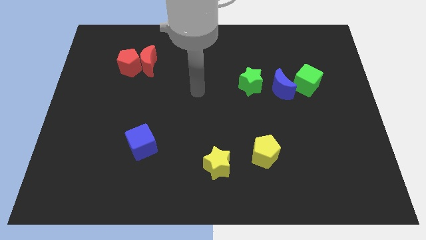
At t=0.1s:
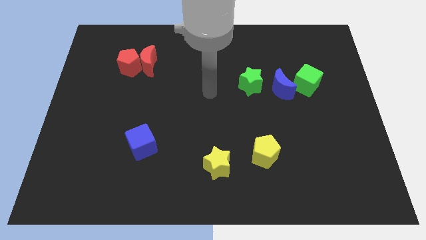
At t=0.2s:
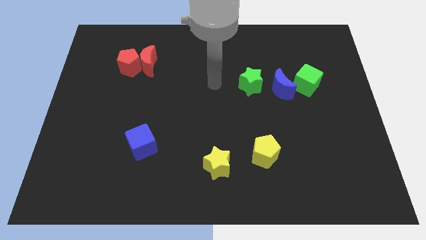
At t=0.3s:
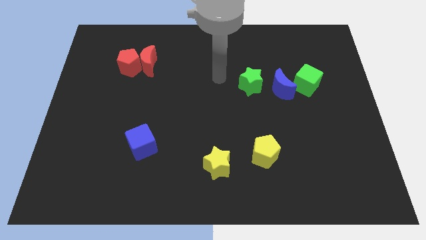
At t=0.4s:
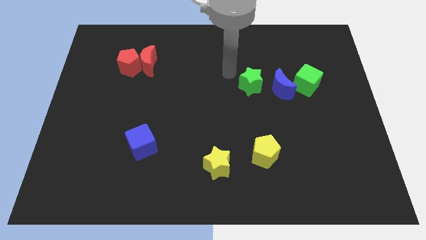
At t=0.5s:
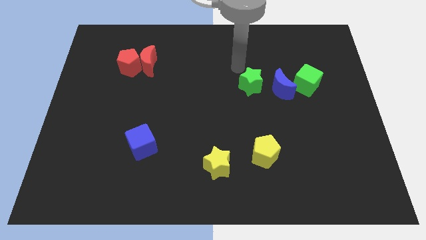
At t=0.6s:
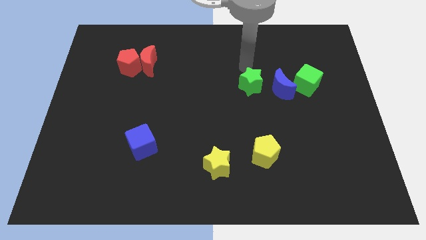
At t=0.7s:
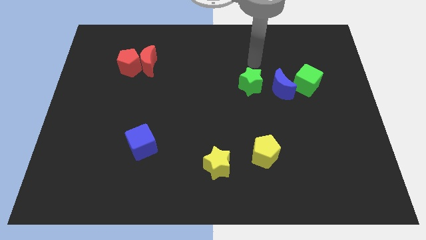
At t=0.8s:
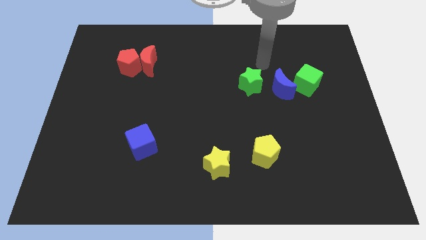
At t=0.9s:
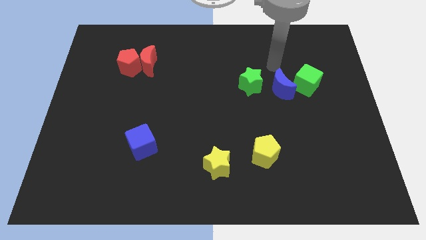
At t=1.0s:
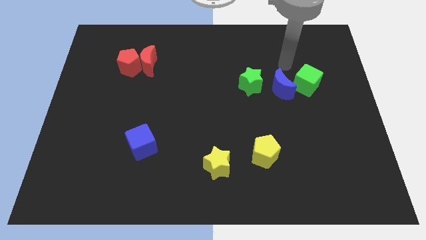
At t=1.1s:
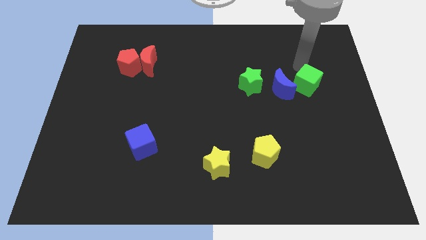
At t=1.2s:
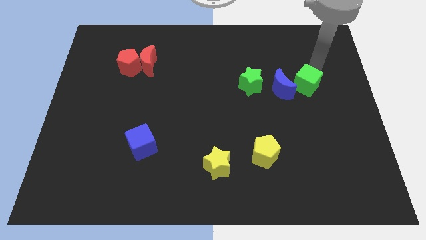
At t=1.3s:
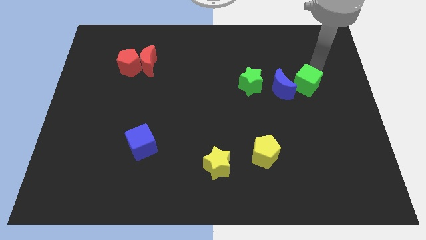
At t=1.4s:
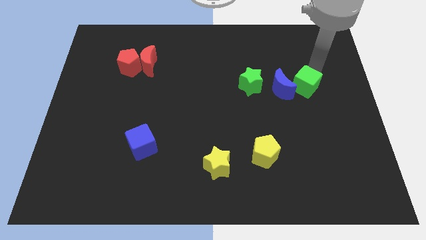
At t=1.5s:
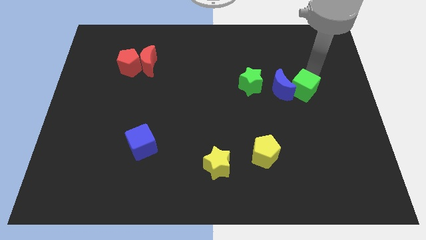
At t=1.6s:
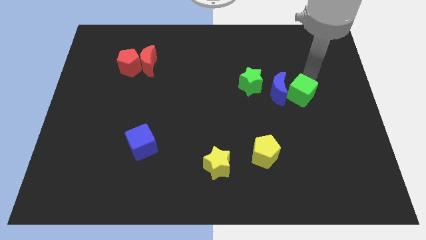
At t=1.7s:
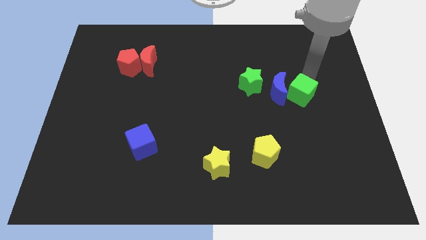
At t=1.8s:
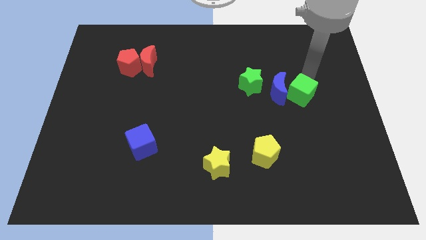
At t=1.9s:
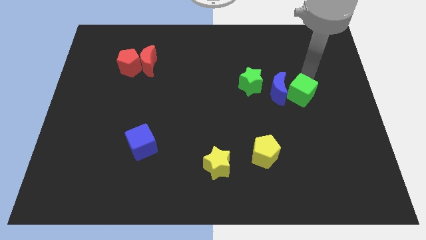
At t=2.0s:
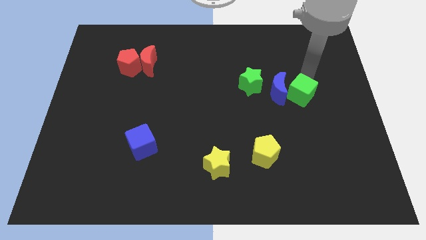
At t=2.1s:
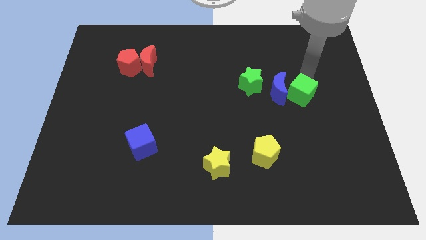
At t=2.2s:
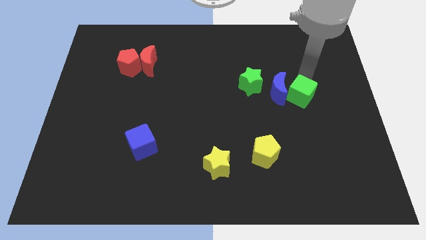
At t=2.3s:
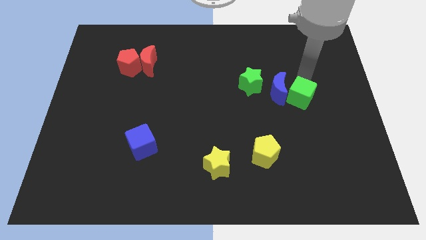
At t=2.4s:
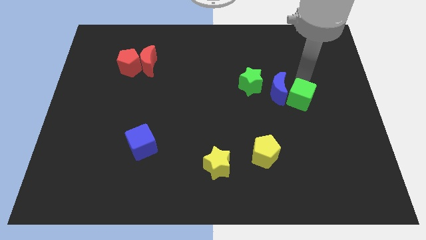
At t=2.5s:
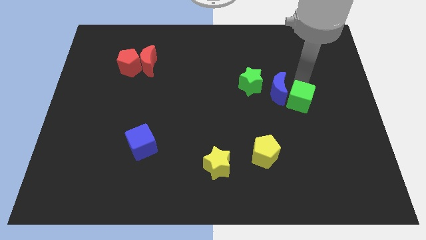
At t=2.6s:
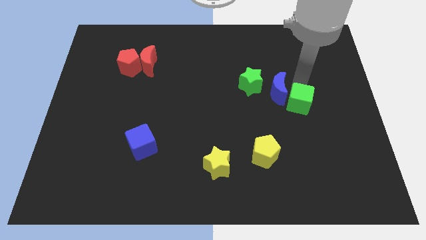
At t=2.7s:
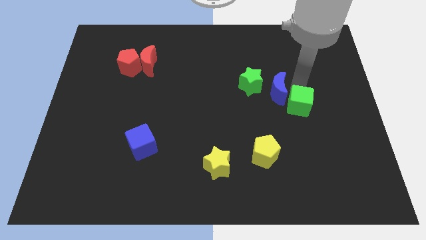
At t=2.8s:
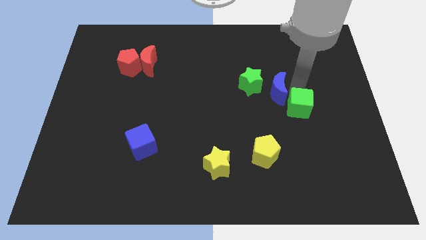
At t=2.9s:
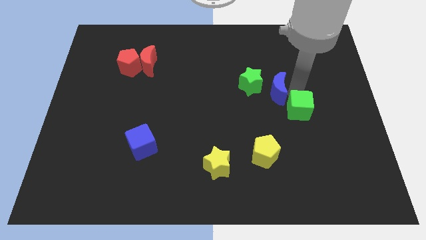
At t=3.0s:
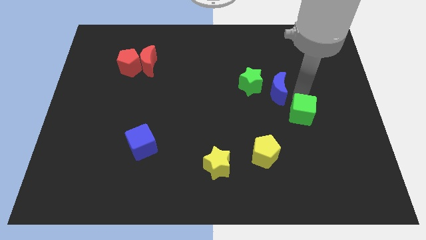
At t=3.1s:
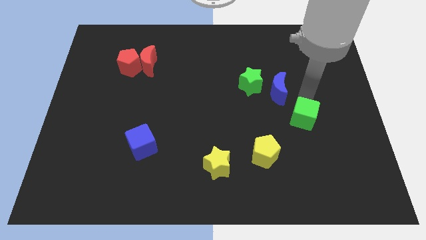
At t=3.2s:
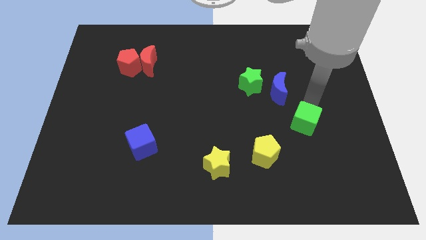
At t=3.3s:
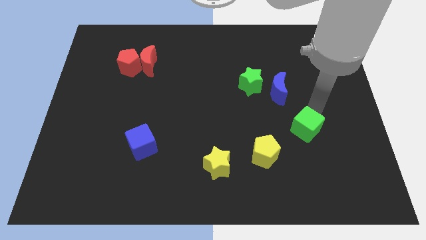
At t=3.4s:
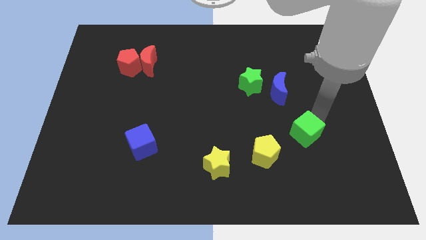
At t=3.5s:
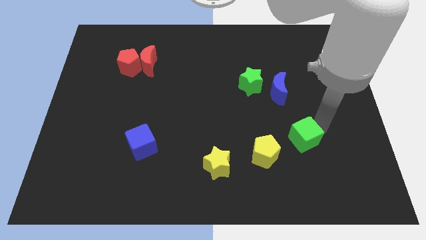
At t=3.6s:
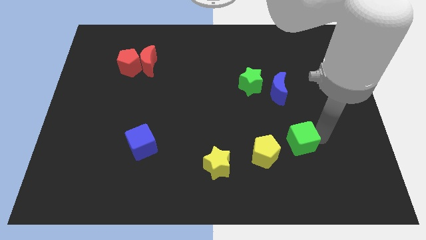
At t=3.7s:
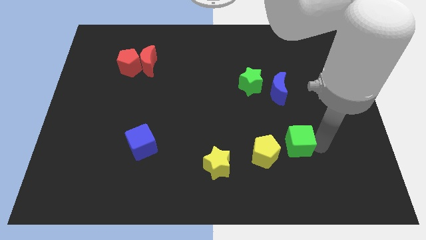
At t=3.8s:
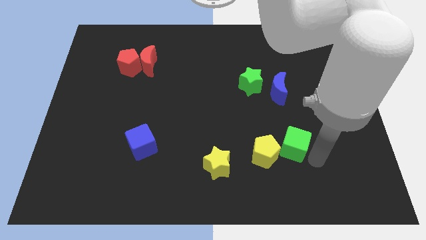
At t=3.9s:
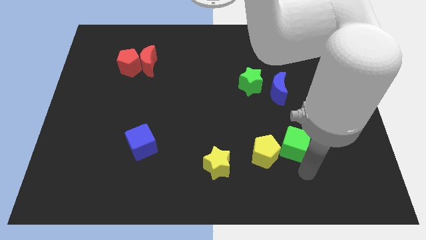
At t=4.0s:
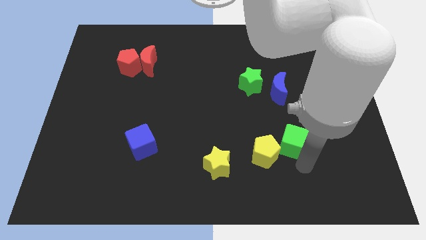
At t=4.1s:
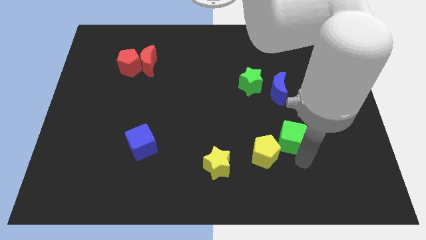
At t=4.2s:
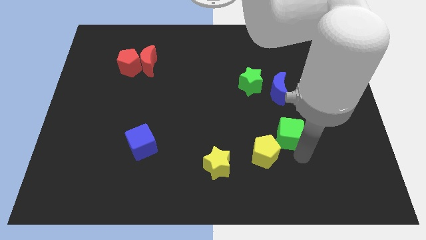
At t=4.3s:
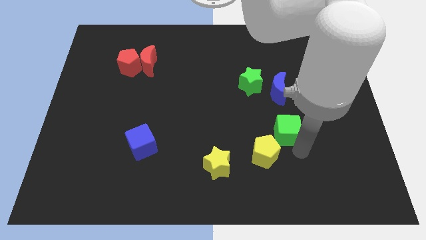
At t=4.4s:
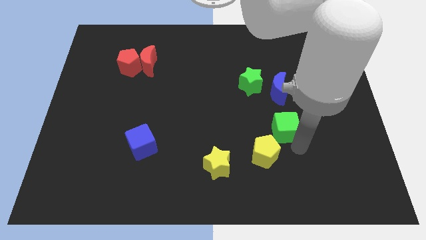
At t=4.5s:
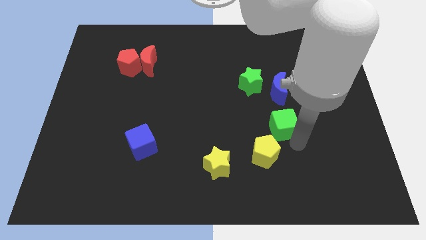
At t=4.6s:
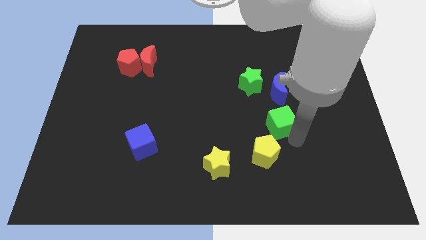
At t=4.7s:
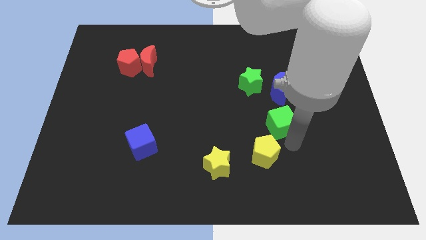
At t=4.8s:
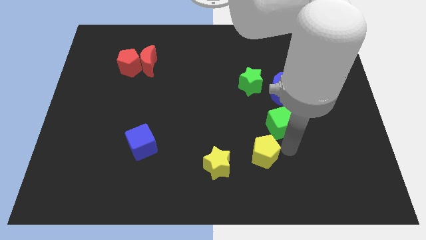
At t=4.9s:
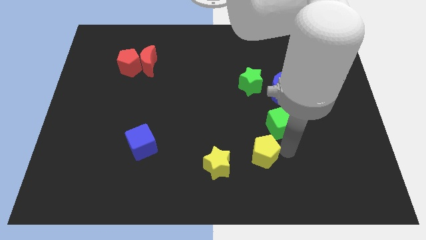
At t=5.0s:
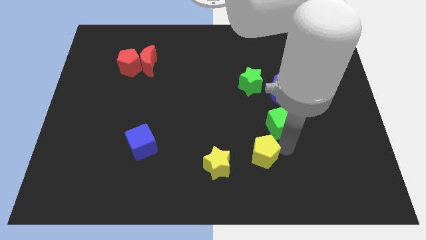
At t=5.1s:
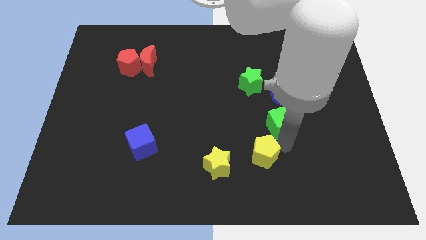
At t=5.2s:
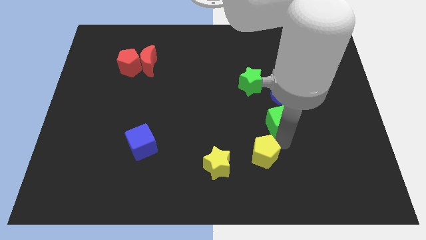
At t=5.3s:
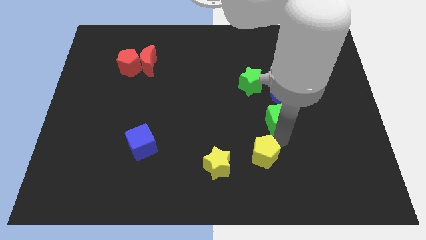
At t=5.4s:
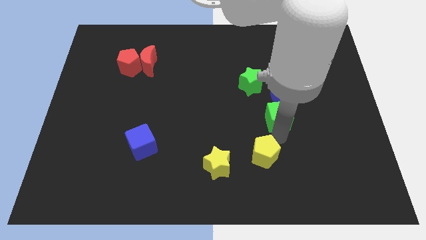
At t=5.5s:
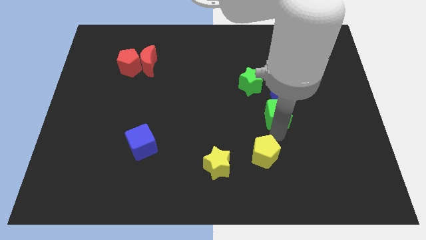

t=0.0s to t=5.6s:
move the green cube to the bottom right side of the green star

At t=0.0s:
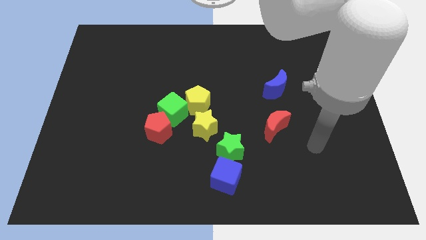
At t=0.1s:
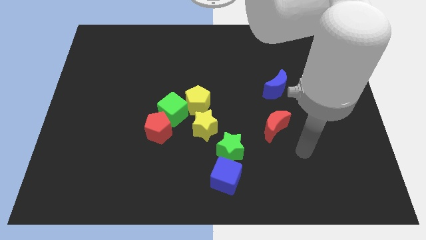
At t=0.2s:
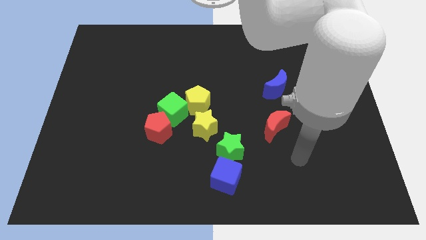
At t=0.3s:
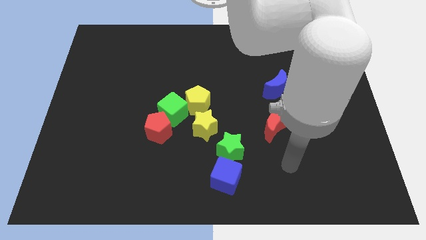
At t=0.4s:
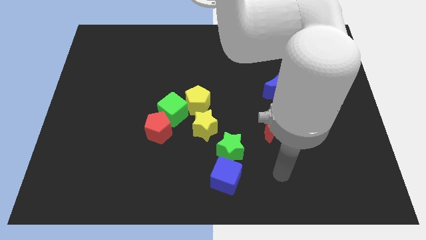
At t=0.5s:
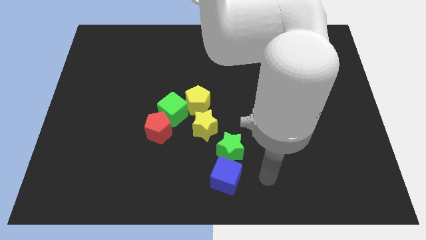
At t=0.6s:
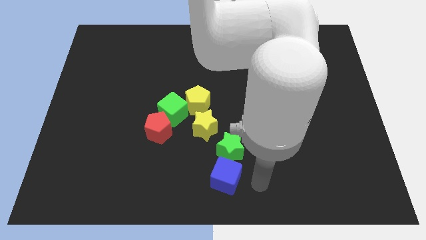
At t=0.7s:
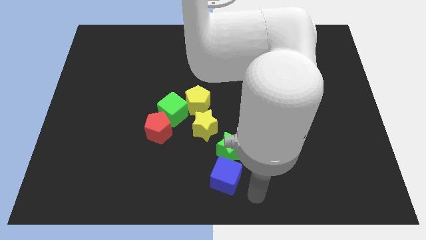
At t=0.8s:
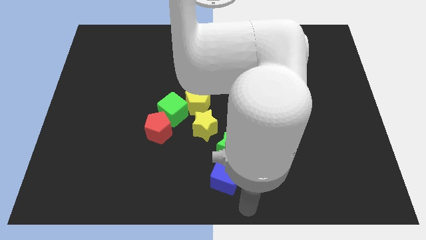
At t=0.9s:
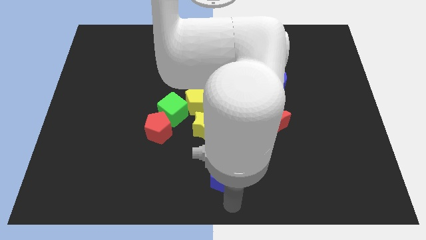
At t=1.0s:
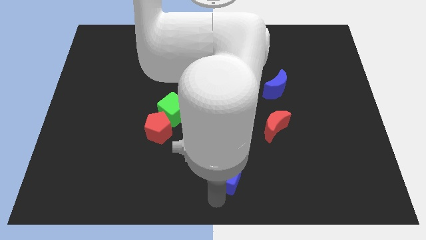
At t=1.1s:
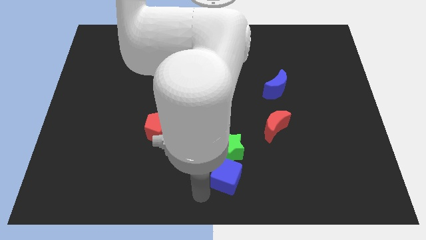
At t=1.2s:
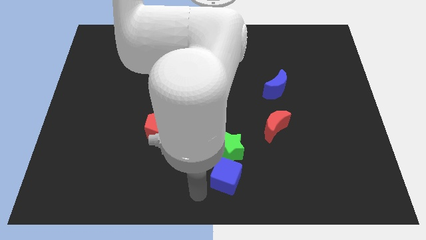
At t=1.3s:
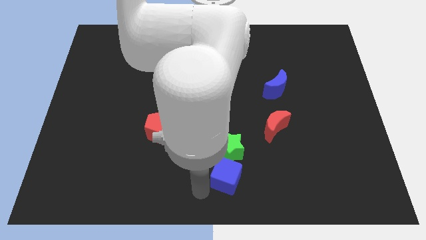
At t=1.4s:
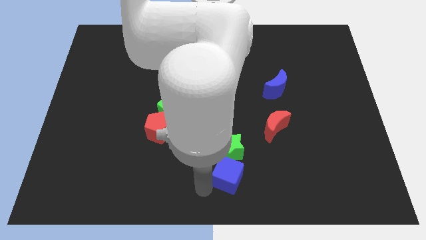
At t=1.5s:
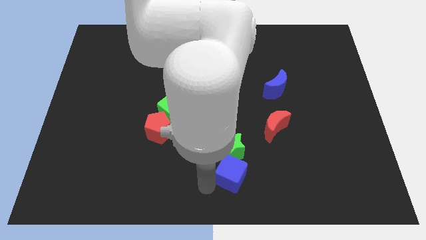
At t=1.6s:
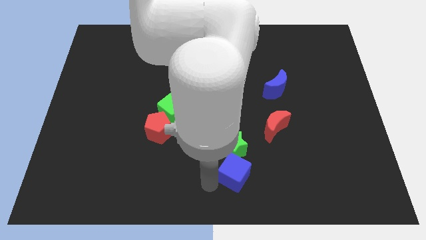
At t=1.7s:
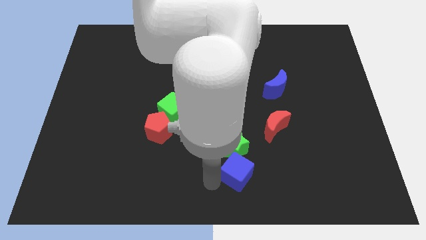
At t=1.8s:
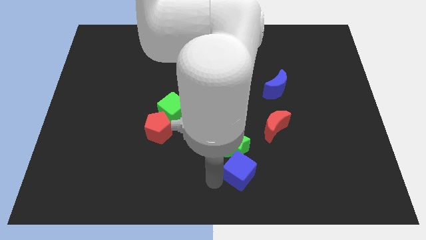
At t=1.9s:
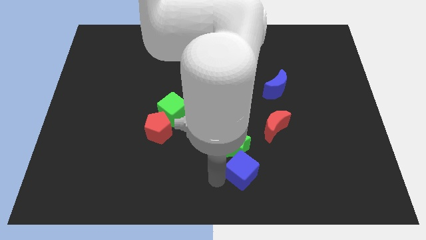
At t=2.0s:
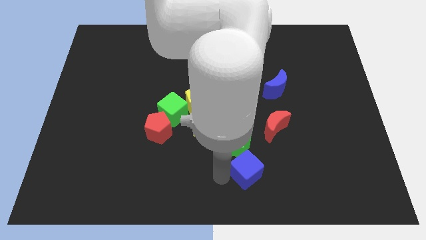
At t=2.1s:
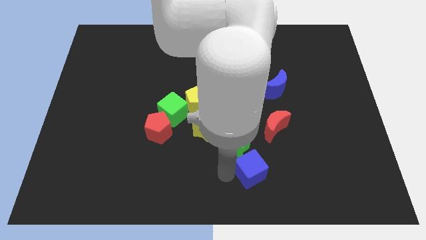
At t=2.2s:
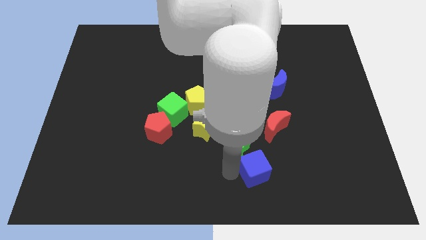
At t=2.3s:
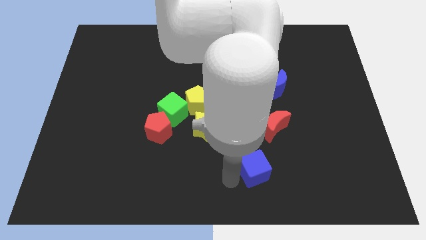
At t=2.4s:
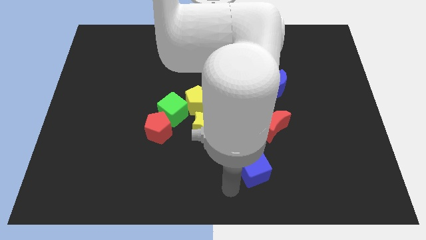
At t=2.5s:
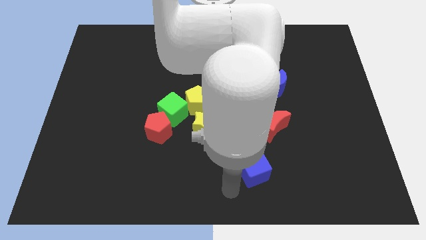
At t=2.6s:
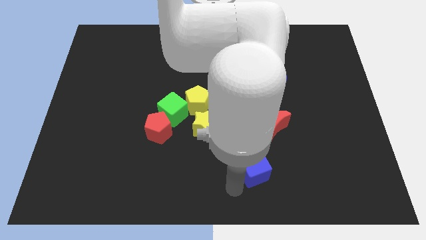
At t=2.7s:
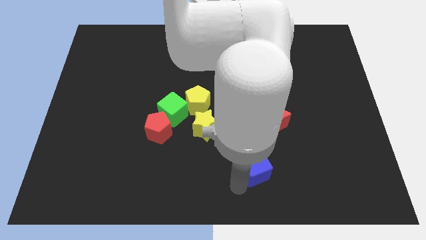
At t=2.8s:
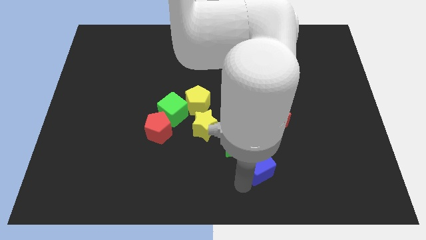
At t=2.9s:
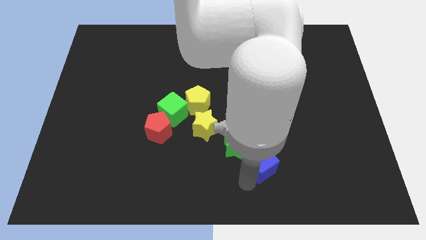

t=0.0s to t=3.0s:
slide the blue cube right of the green star
